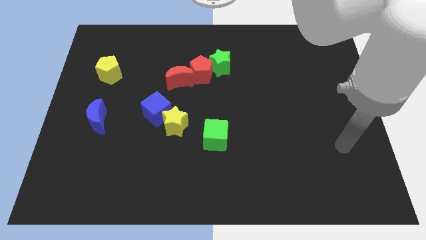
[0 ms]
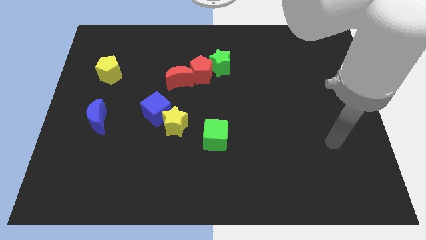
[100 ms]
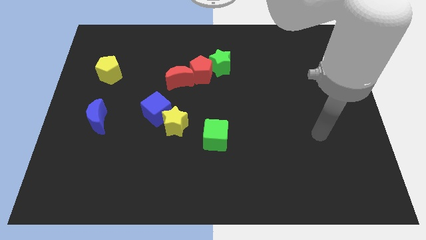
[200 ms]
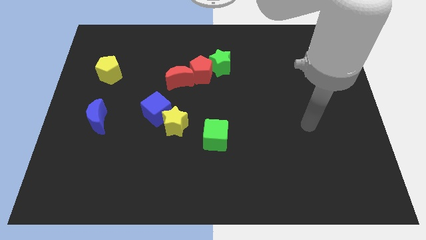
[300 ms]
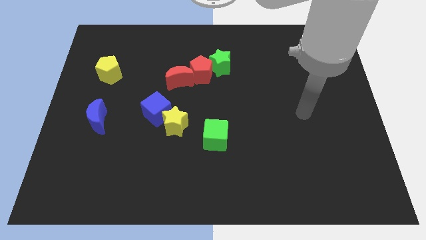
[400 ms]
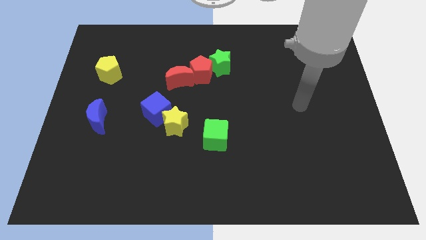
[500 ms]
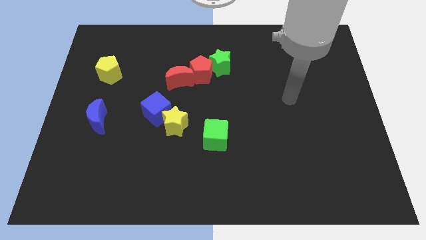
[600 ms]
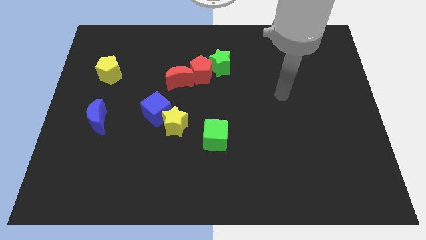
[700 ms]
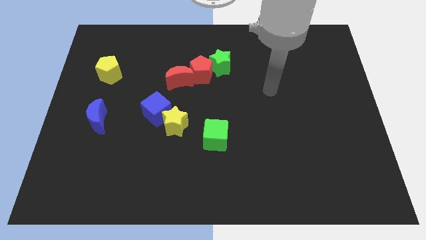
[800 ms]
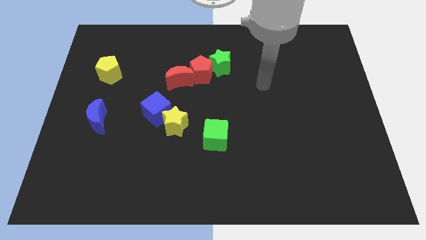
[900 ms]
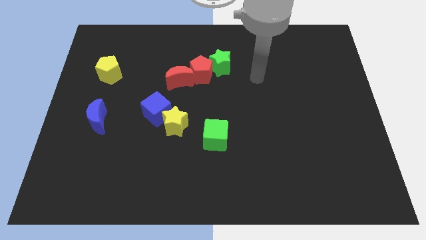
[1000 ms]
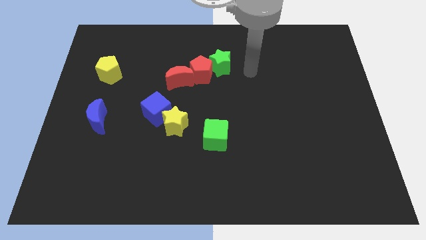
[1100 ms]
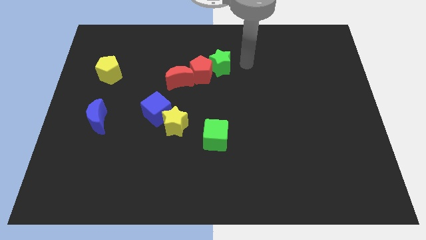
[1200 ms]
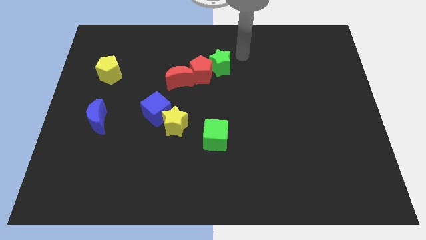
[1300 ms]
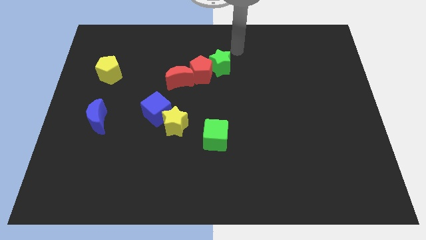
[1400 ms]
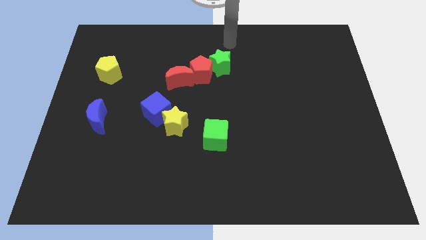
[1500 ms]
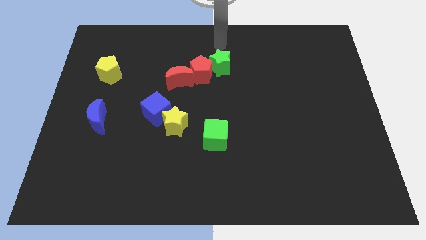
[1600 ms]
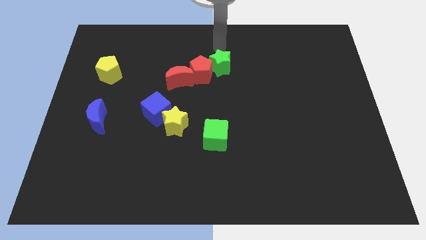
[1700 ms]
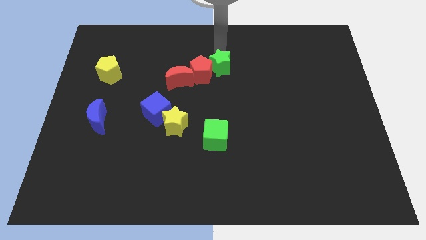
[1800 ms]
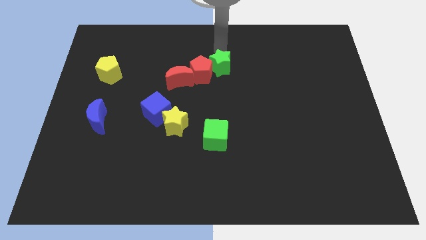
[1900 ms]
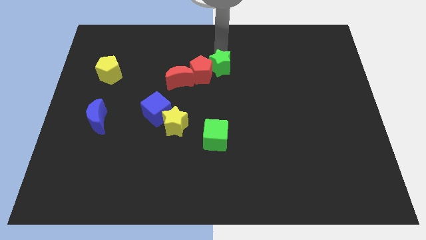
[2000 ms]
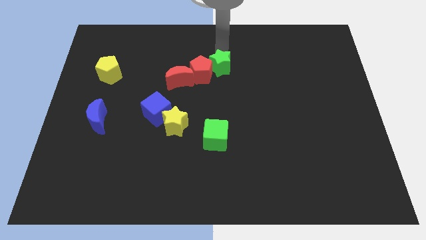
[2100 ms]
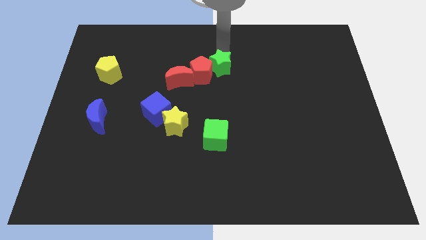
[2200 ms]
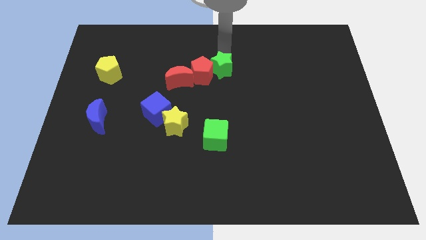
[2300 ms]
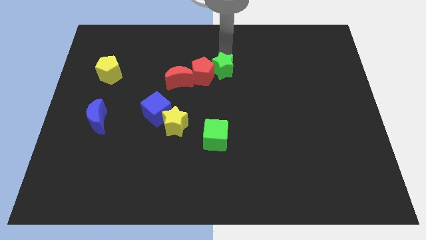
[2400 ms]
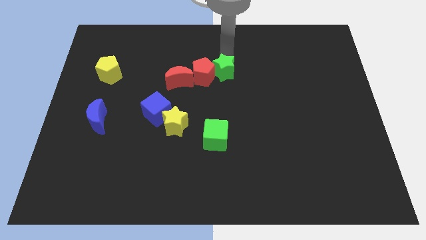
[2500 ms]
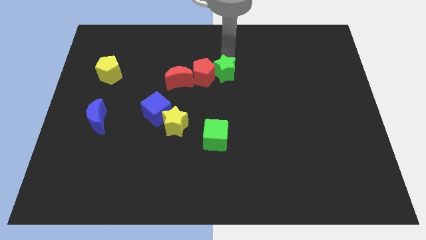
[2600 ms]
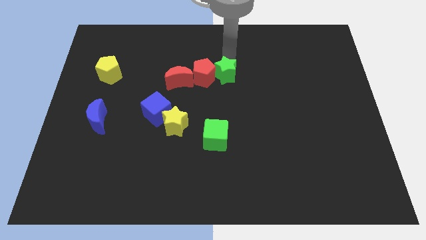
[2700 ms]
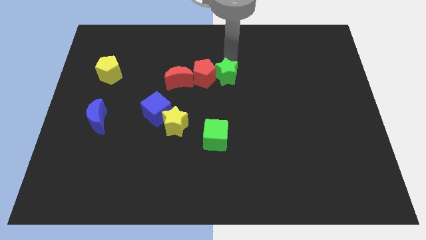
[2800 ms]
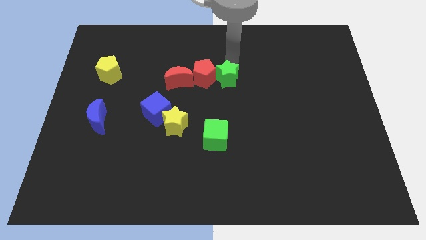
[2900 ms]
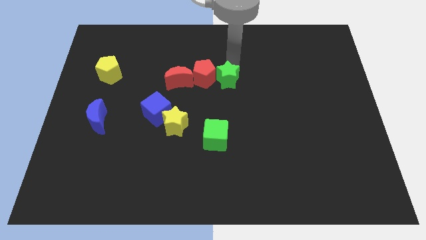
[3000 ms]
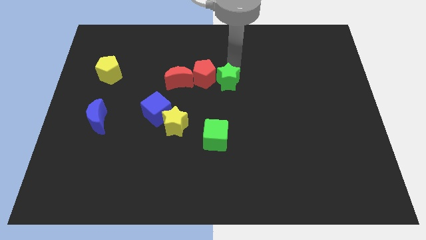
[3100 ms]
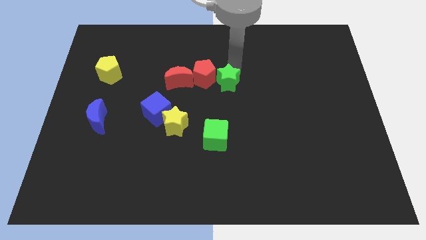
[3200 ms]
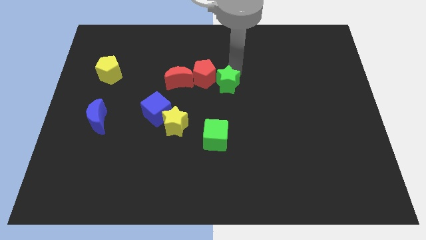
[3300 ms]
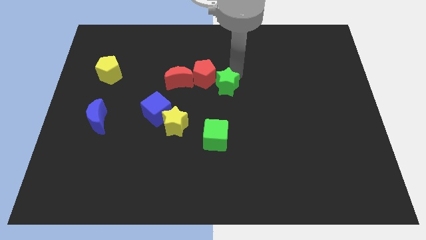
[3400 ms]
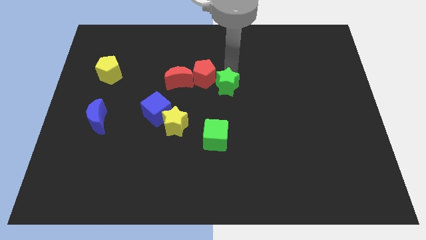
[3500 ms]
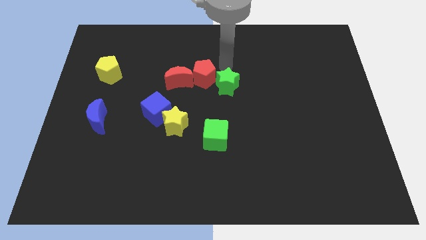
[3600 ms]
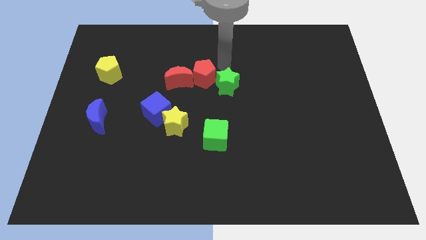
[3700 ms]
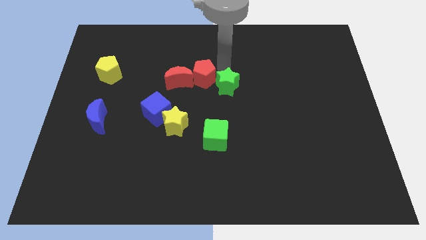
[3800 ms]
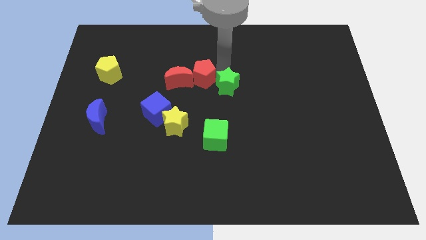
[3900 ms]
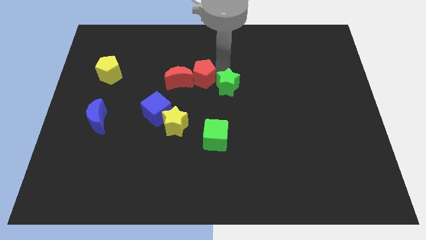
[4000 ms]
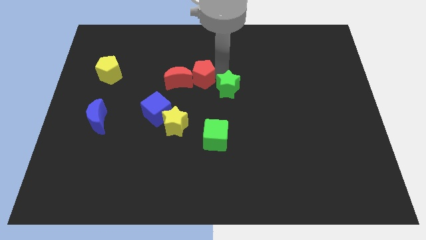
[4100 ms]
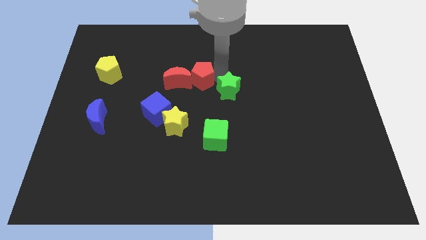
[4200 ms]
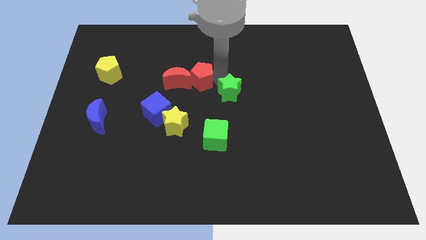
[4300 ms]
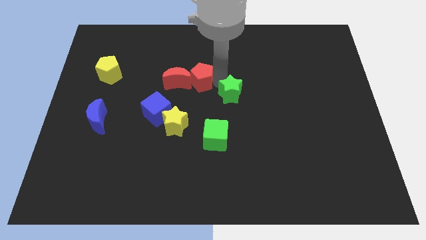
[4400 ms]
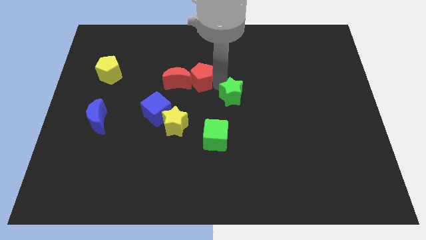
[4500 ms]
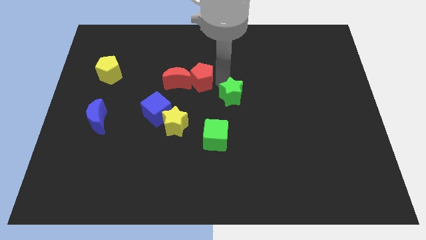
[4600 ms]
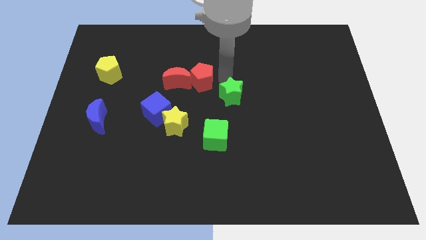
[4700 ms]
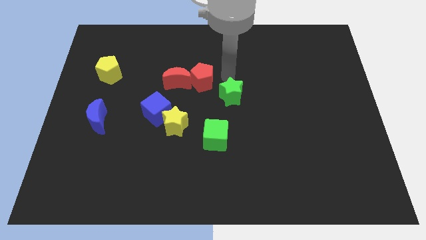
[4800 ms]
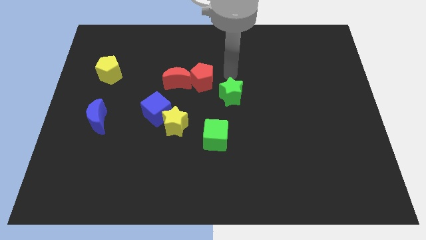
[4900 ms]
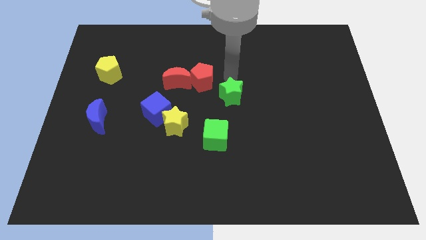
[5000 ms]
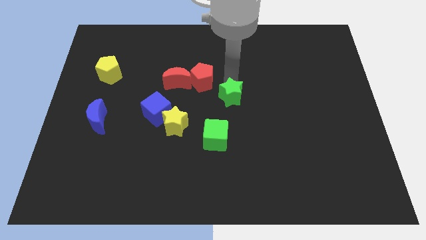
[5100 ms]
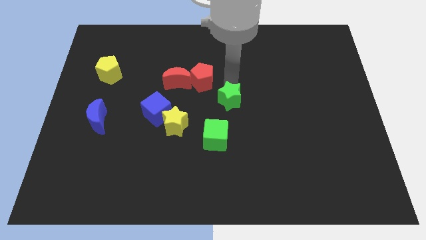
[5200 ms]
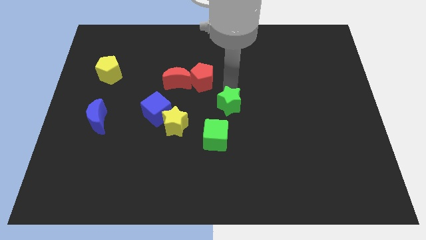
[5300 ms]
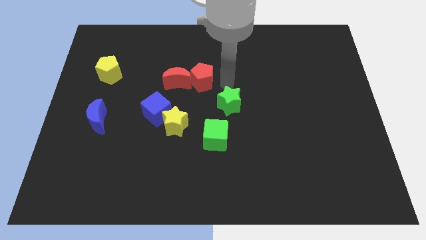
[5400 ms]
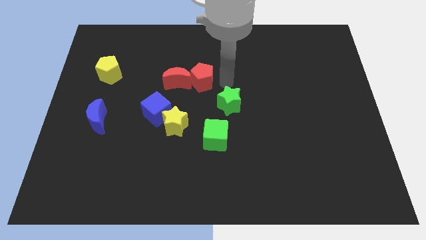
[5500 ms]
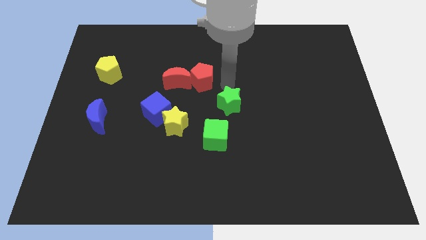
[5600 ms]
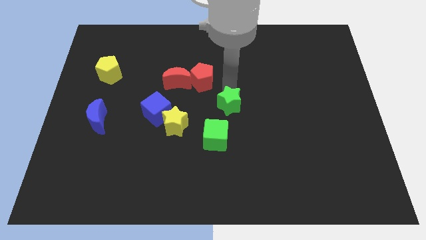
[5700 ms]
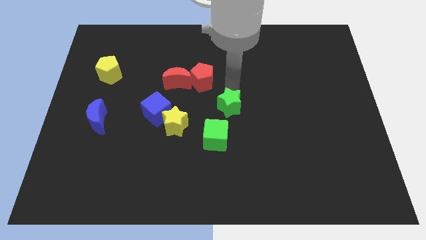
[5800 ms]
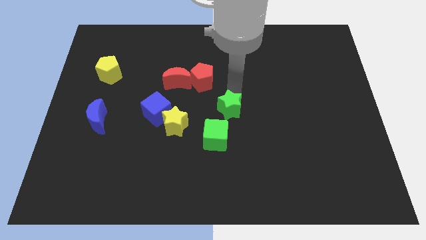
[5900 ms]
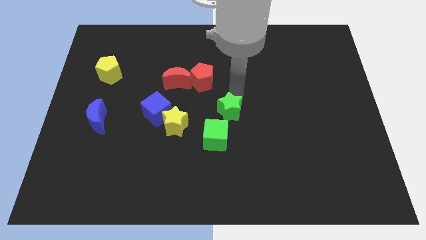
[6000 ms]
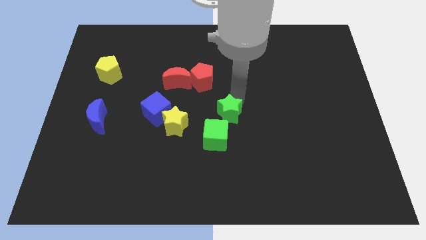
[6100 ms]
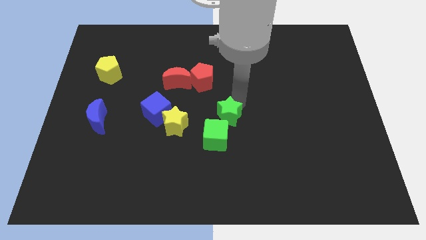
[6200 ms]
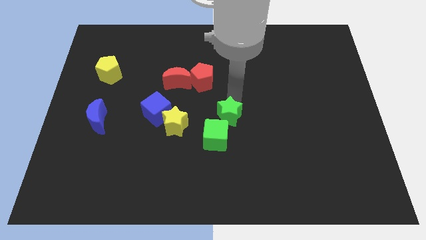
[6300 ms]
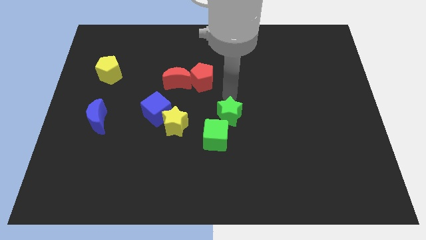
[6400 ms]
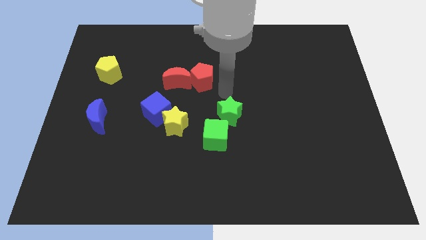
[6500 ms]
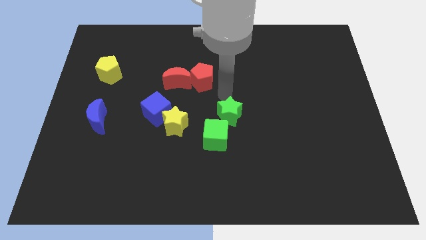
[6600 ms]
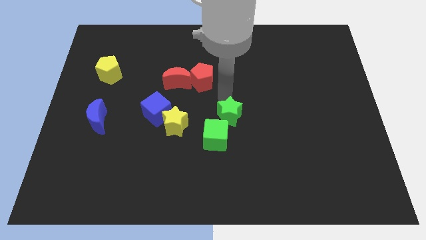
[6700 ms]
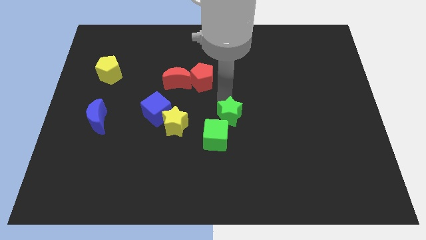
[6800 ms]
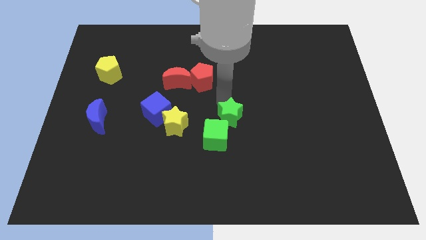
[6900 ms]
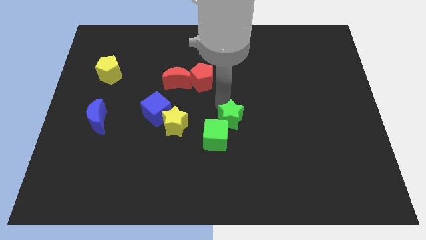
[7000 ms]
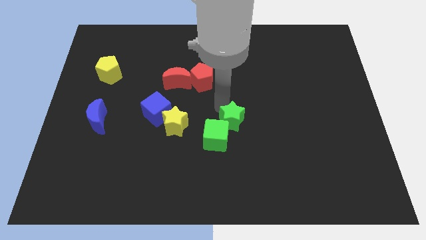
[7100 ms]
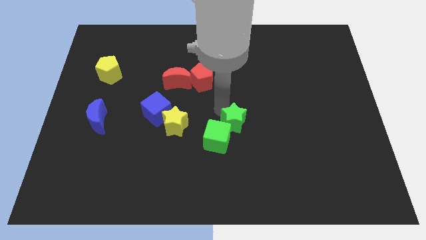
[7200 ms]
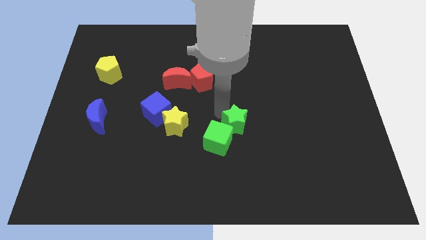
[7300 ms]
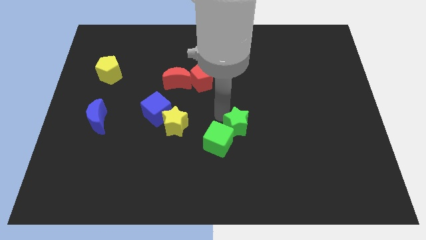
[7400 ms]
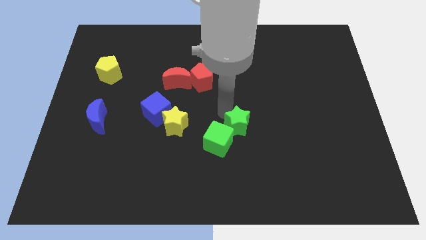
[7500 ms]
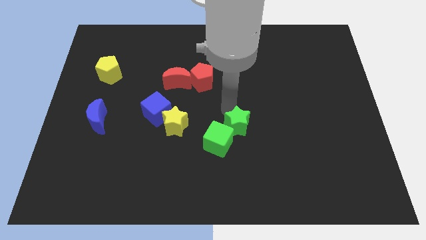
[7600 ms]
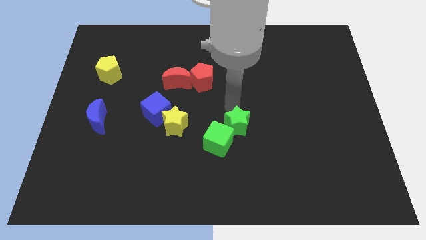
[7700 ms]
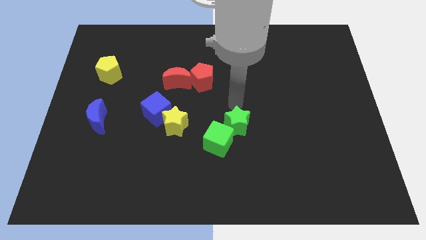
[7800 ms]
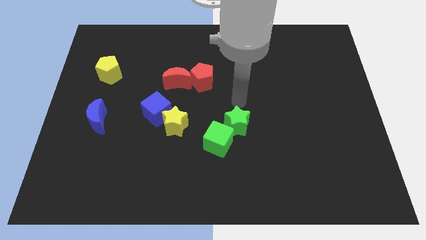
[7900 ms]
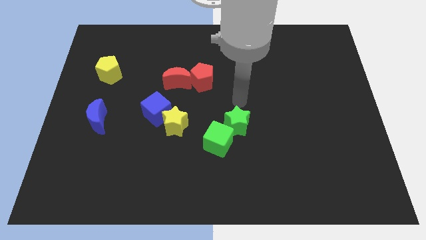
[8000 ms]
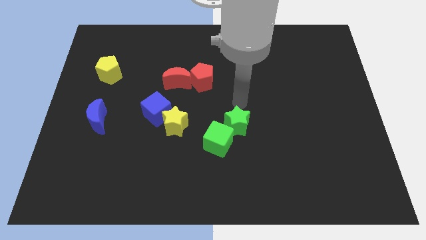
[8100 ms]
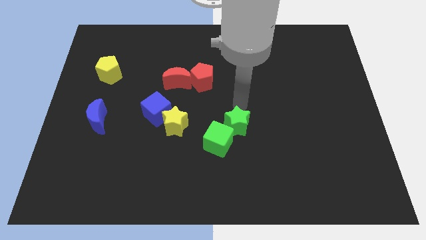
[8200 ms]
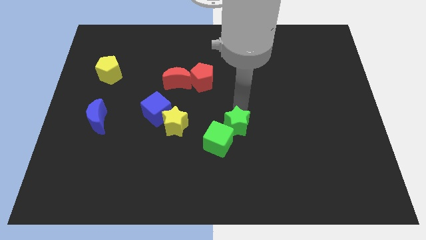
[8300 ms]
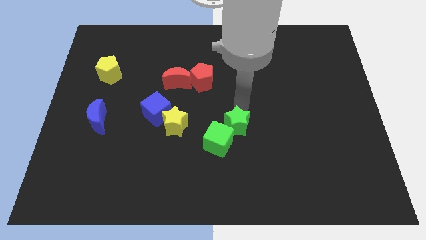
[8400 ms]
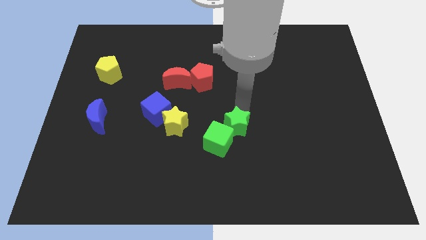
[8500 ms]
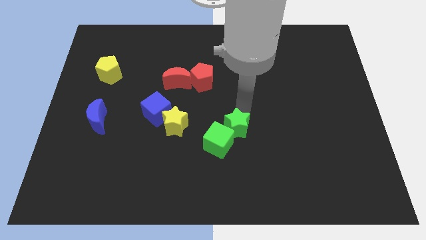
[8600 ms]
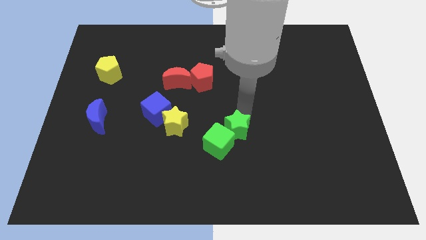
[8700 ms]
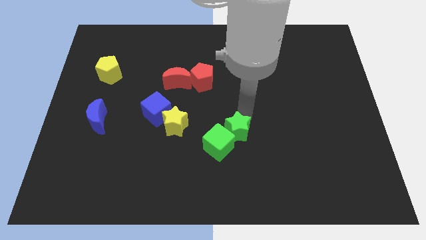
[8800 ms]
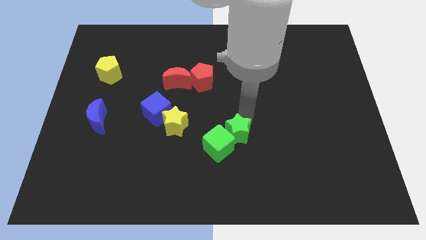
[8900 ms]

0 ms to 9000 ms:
slide the green star down
